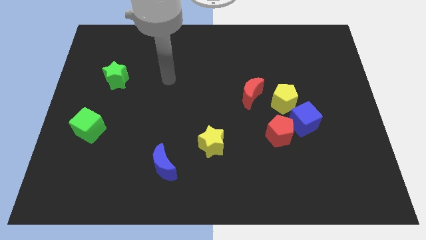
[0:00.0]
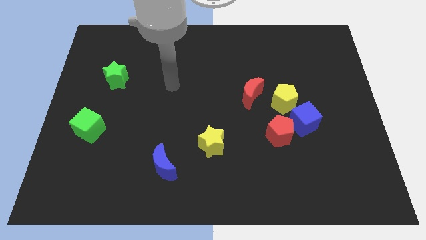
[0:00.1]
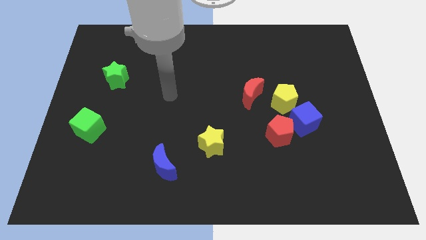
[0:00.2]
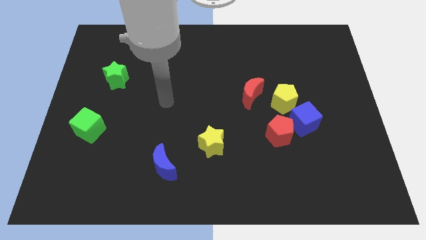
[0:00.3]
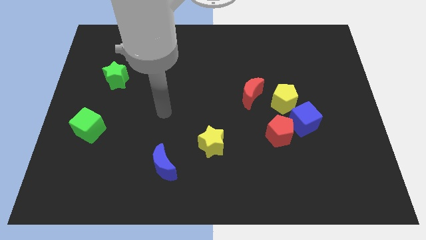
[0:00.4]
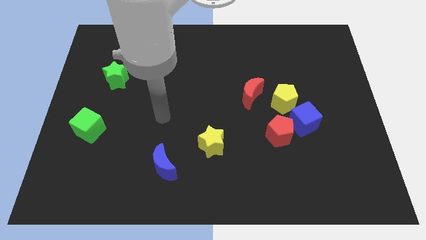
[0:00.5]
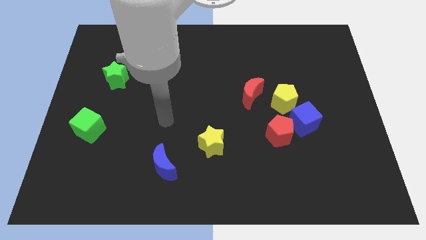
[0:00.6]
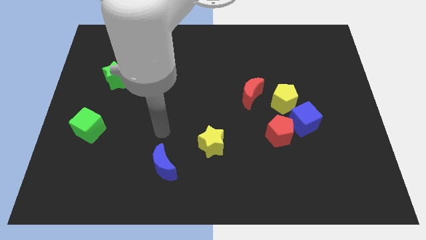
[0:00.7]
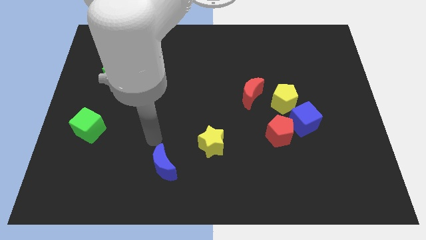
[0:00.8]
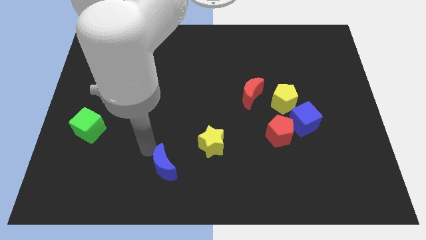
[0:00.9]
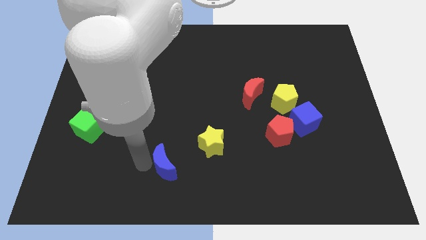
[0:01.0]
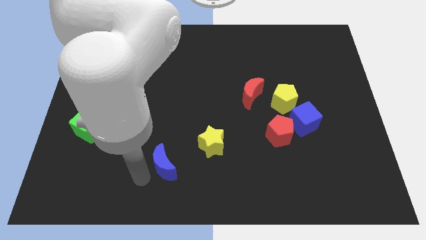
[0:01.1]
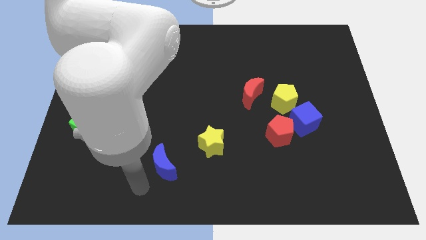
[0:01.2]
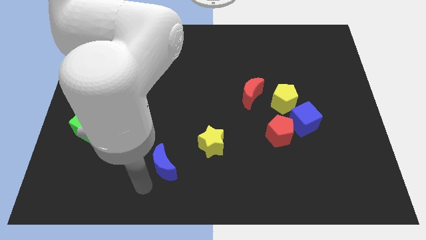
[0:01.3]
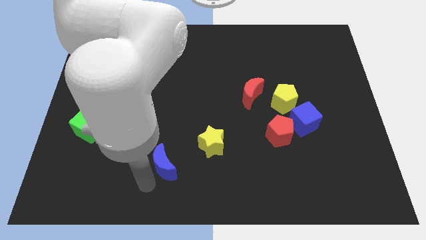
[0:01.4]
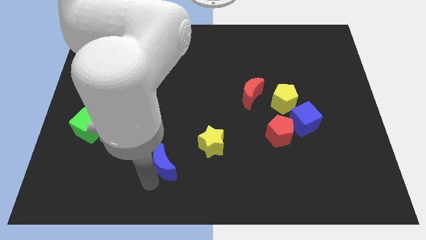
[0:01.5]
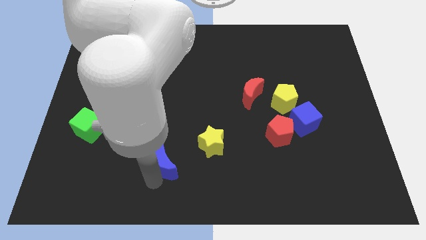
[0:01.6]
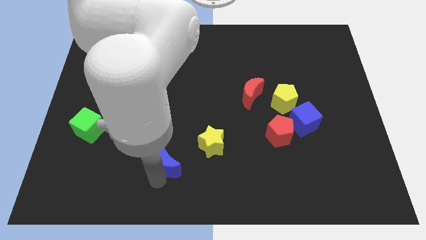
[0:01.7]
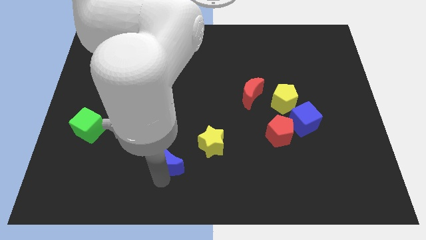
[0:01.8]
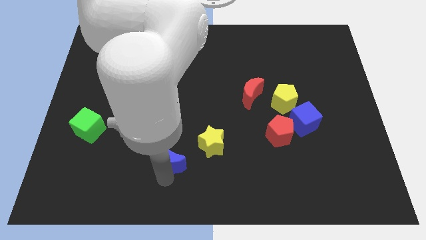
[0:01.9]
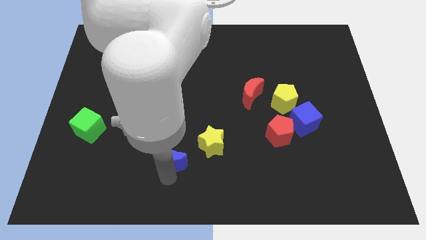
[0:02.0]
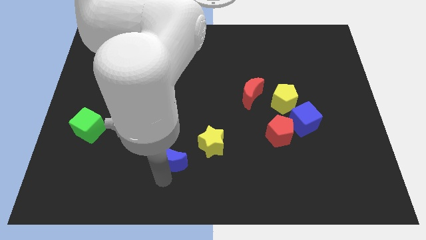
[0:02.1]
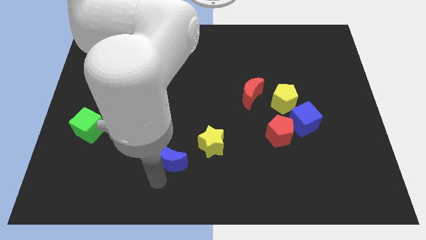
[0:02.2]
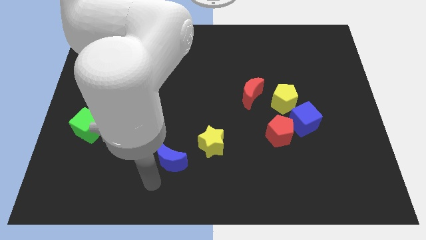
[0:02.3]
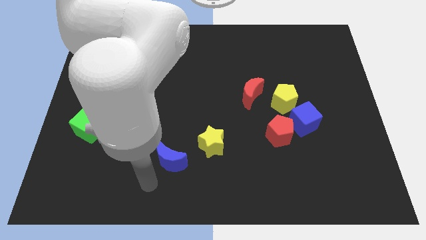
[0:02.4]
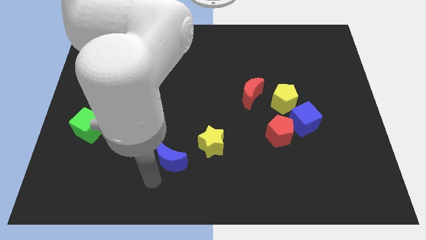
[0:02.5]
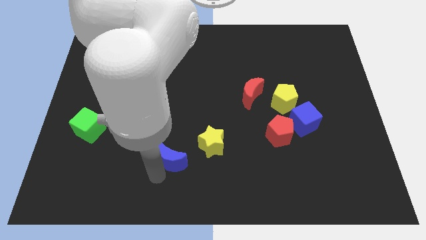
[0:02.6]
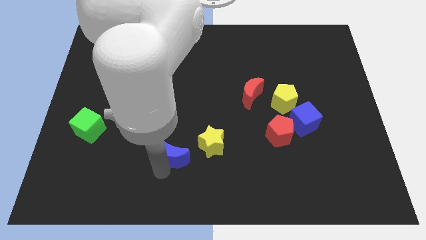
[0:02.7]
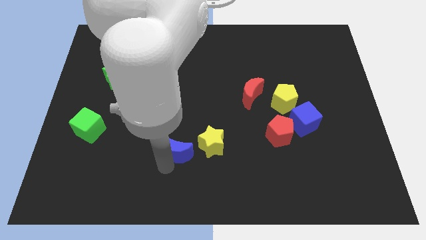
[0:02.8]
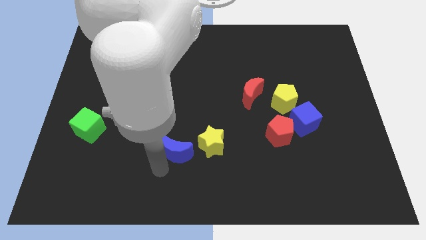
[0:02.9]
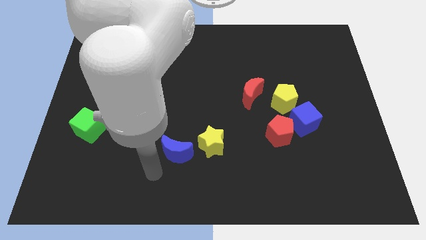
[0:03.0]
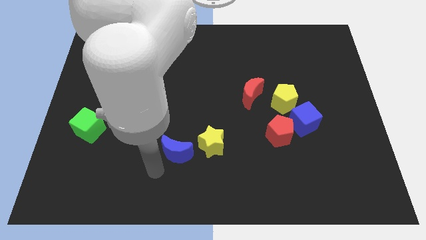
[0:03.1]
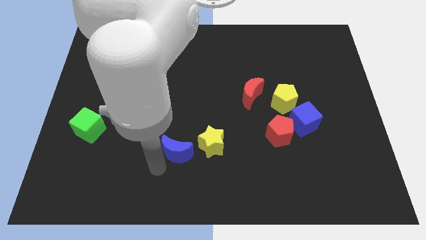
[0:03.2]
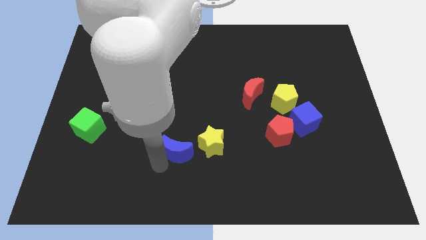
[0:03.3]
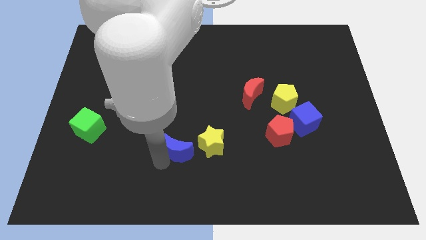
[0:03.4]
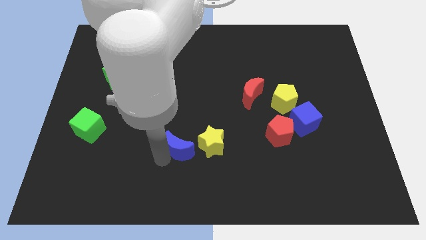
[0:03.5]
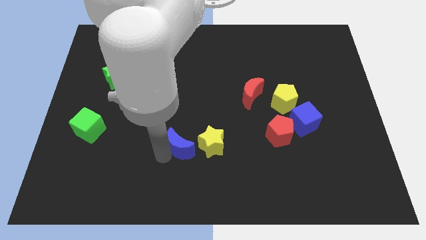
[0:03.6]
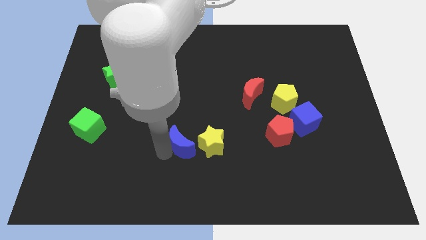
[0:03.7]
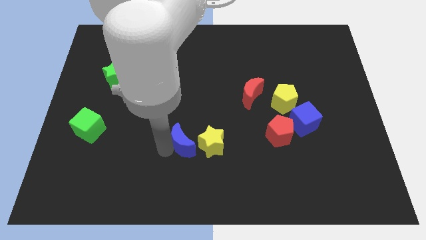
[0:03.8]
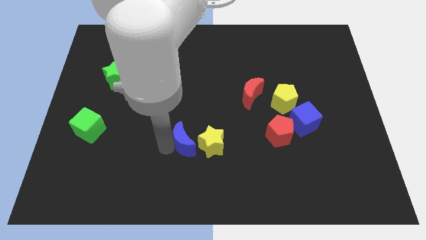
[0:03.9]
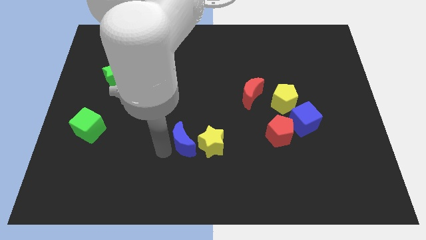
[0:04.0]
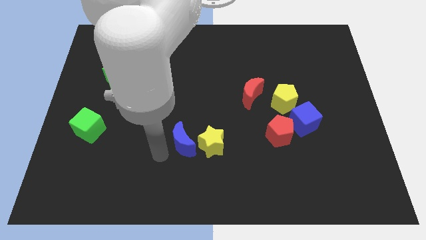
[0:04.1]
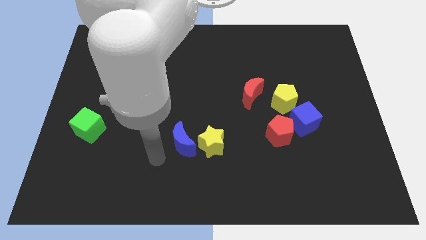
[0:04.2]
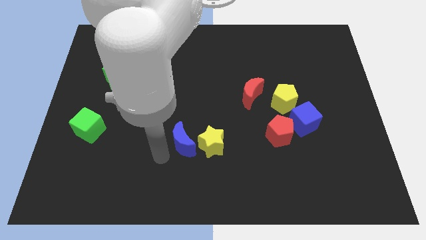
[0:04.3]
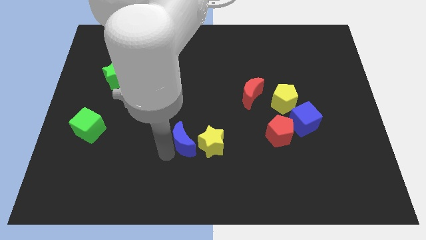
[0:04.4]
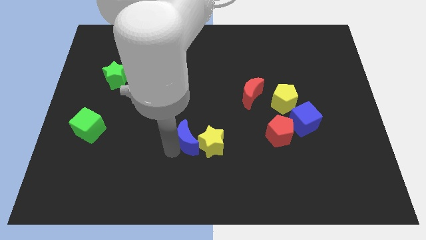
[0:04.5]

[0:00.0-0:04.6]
slightly move the blue moon up and to the right diagonally

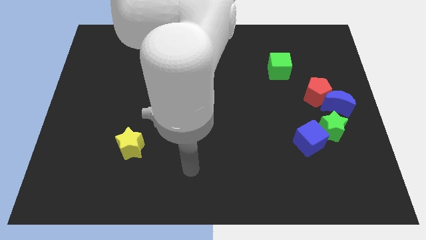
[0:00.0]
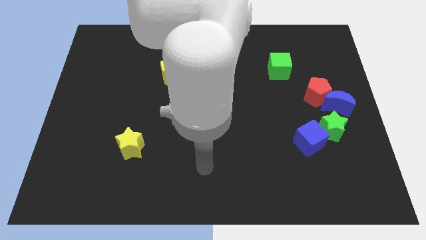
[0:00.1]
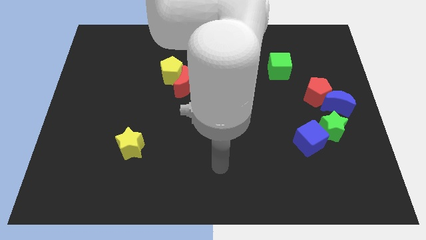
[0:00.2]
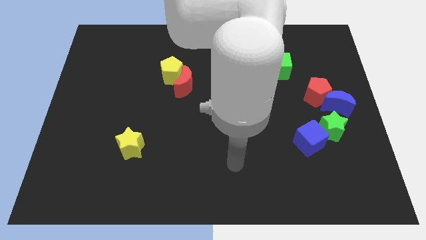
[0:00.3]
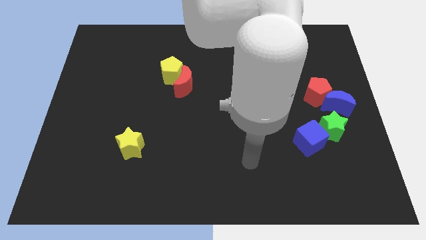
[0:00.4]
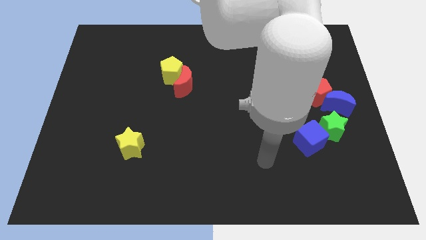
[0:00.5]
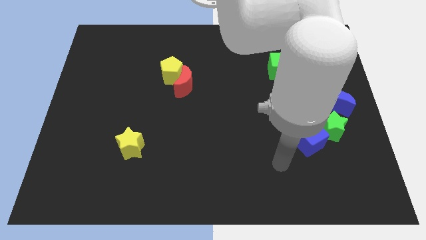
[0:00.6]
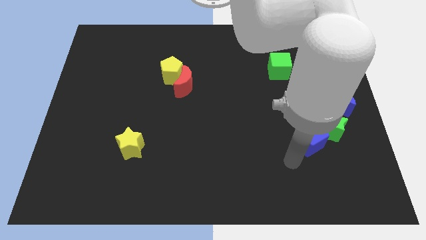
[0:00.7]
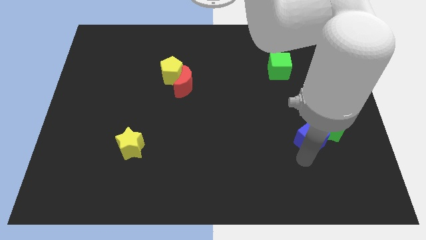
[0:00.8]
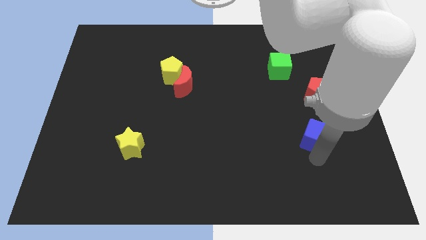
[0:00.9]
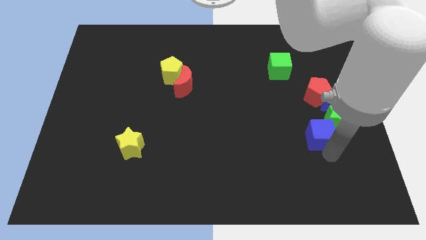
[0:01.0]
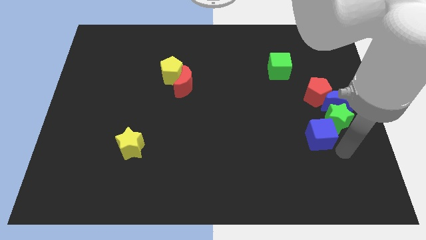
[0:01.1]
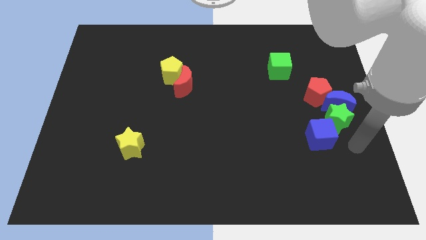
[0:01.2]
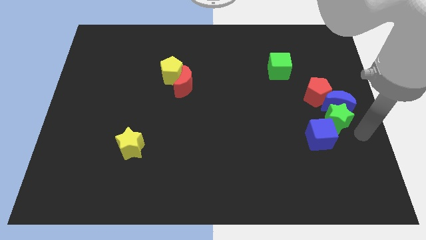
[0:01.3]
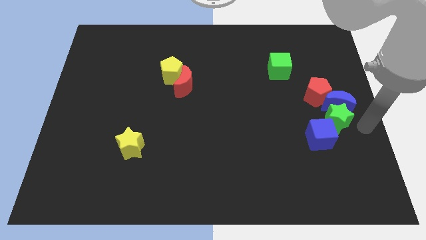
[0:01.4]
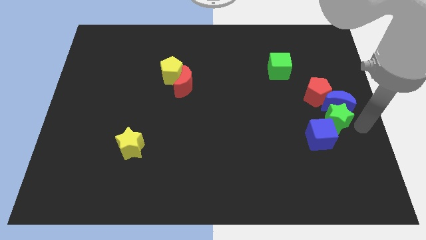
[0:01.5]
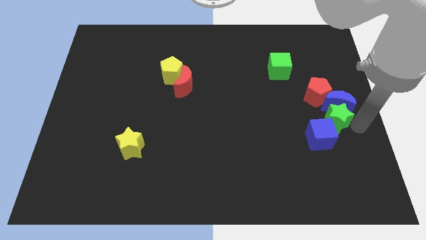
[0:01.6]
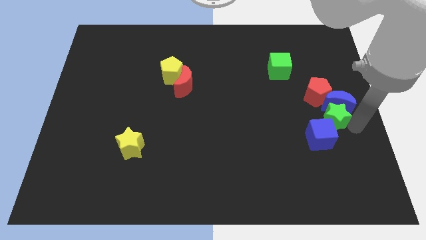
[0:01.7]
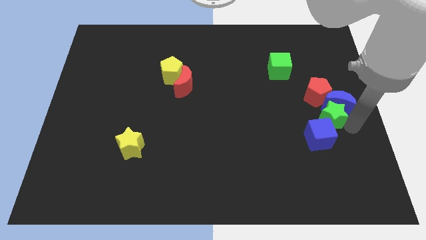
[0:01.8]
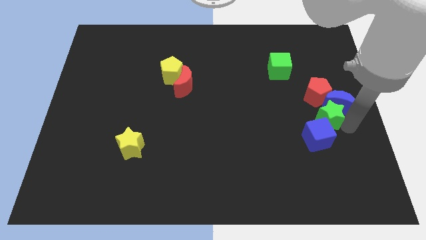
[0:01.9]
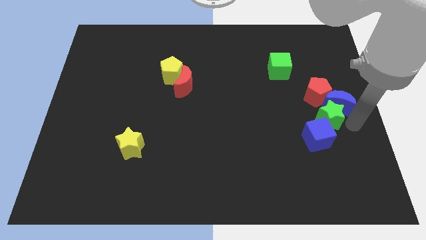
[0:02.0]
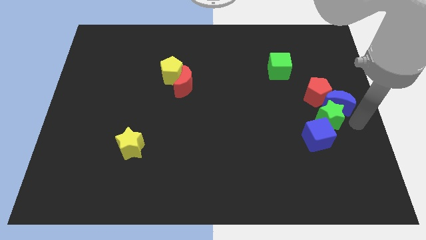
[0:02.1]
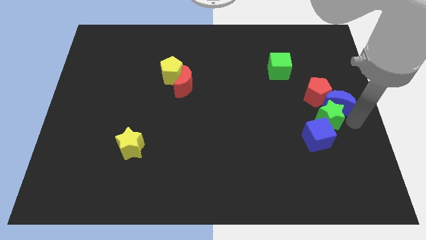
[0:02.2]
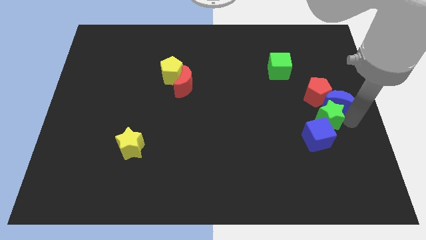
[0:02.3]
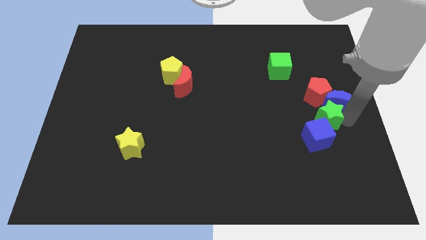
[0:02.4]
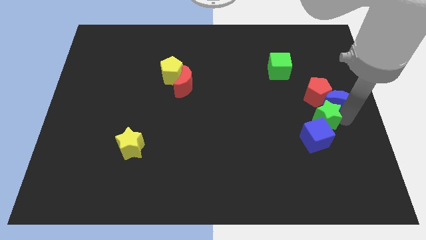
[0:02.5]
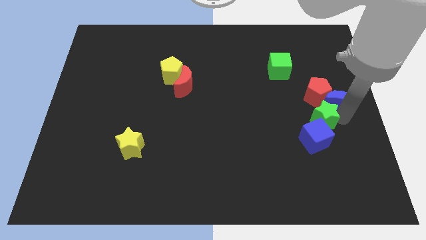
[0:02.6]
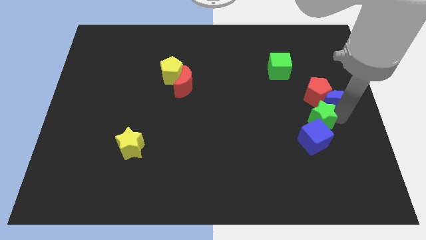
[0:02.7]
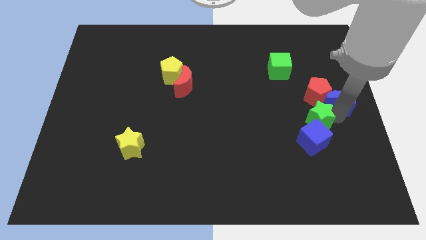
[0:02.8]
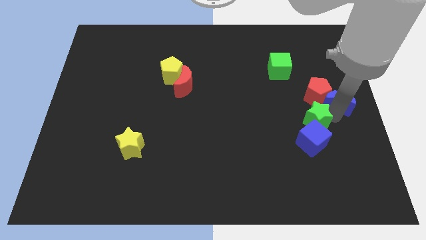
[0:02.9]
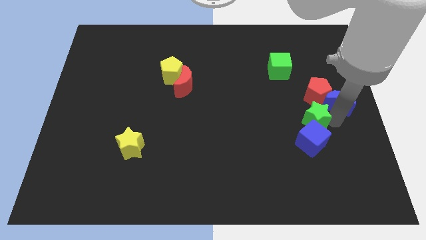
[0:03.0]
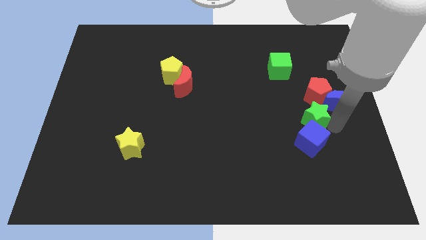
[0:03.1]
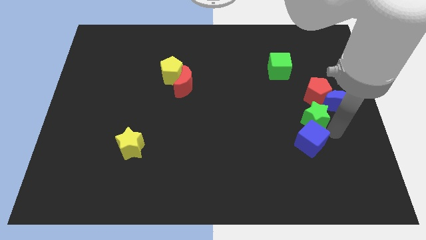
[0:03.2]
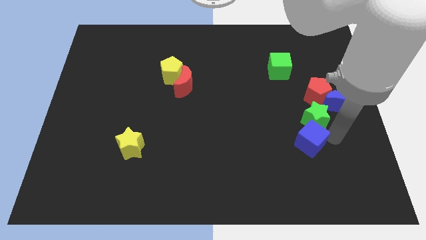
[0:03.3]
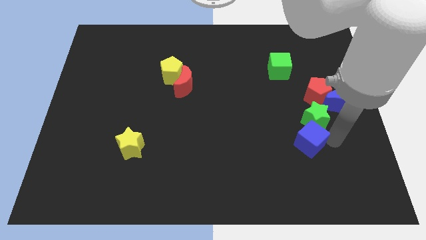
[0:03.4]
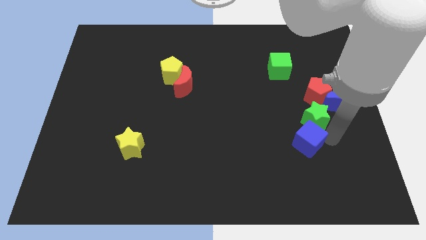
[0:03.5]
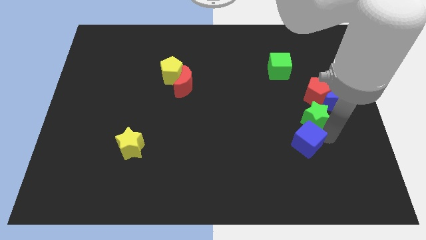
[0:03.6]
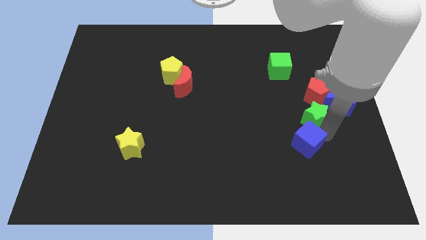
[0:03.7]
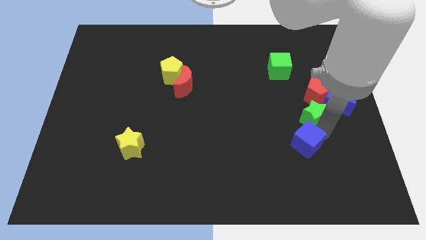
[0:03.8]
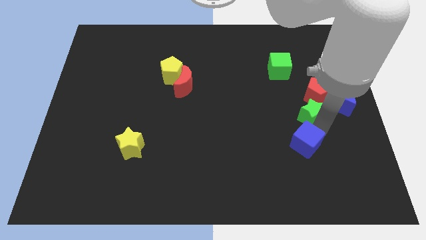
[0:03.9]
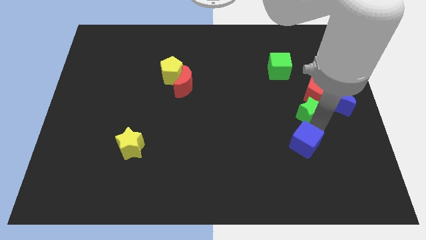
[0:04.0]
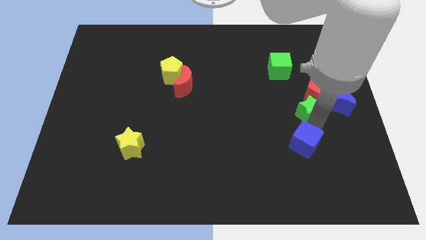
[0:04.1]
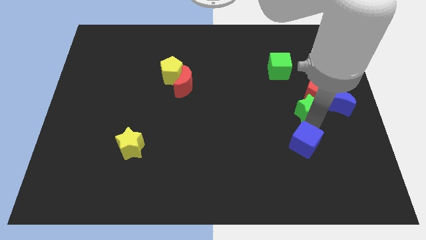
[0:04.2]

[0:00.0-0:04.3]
push the green star a little up and left
